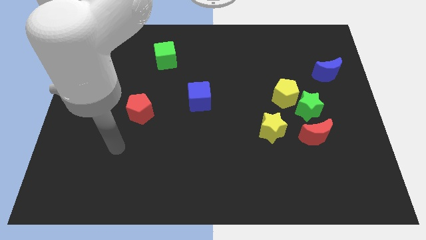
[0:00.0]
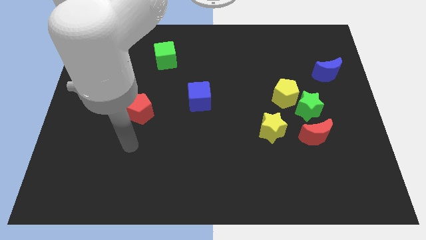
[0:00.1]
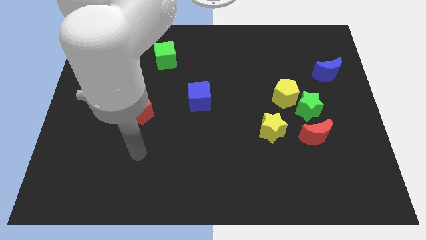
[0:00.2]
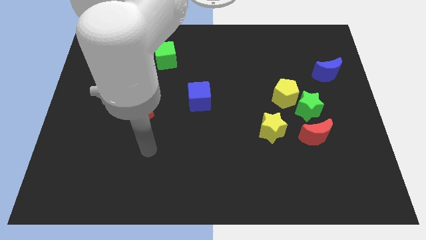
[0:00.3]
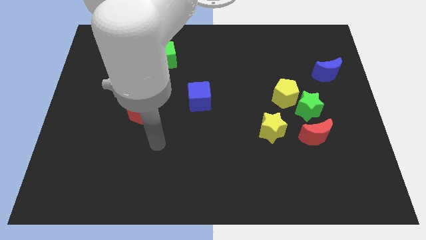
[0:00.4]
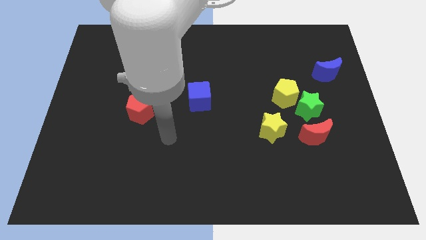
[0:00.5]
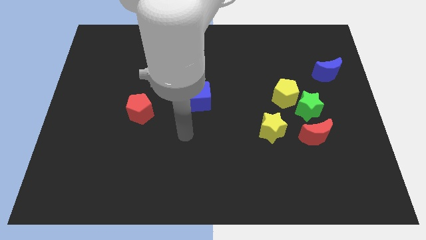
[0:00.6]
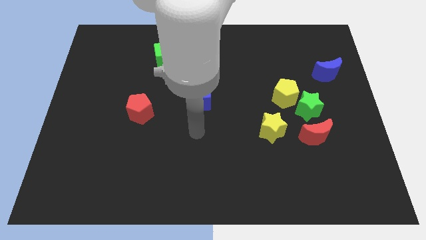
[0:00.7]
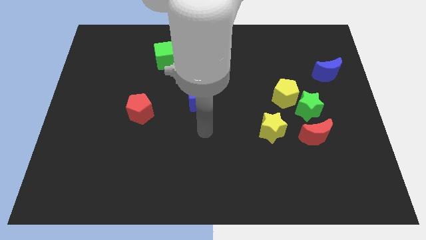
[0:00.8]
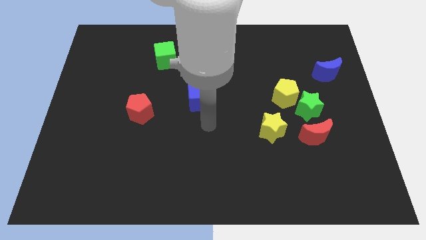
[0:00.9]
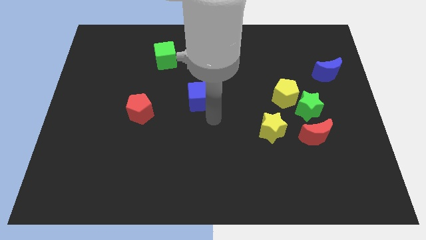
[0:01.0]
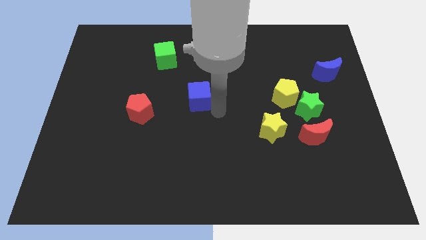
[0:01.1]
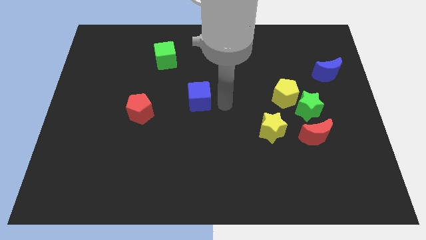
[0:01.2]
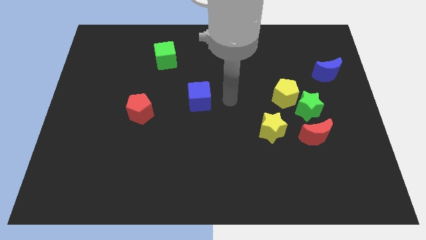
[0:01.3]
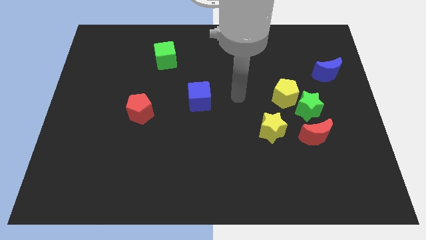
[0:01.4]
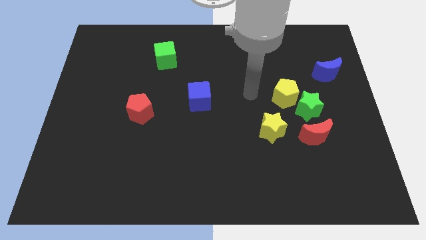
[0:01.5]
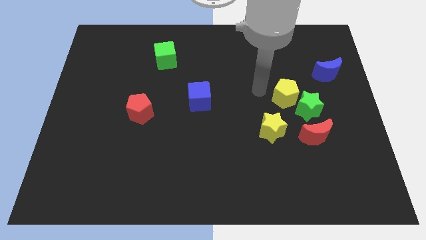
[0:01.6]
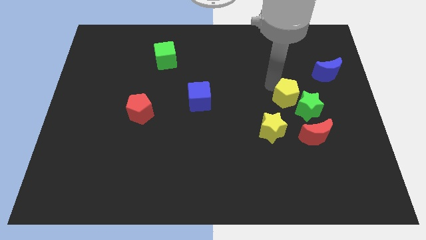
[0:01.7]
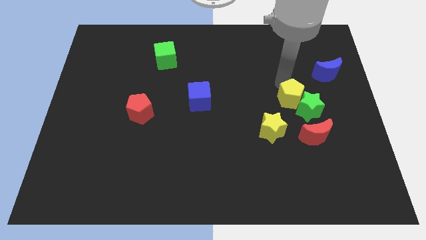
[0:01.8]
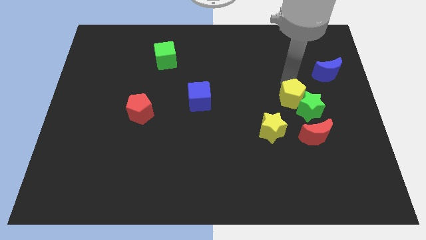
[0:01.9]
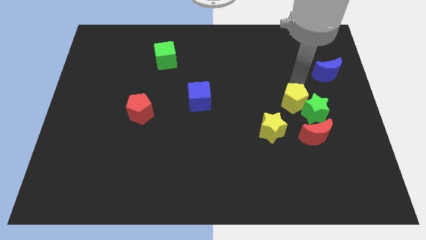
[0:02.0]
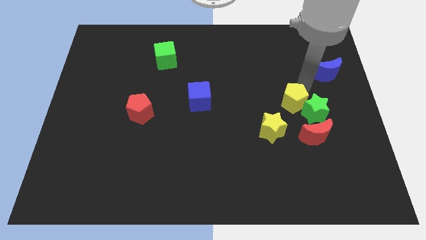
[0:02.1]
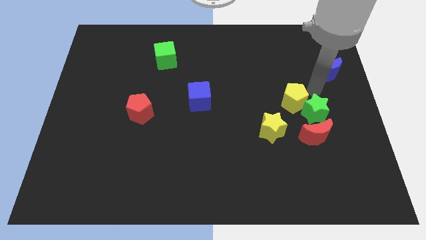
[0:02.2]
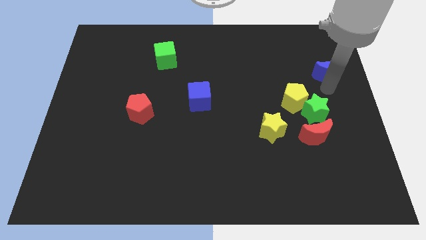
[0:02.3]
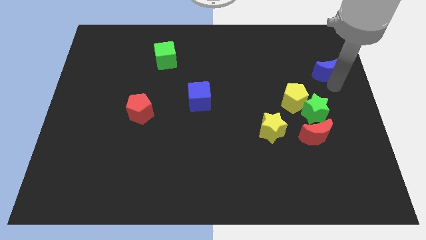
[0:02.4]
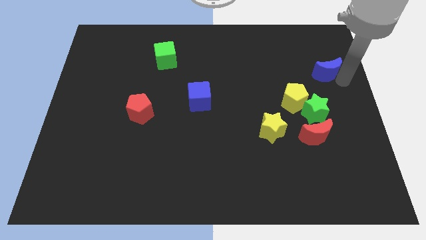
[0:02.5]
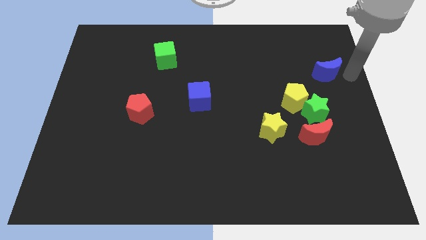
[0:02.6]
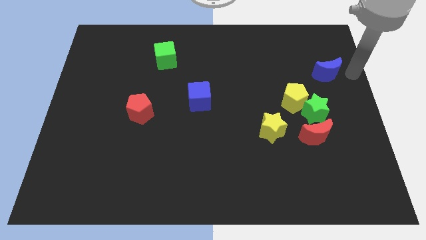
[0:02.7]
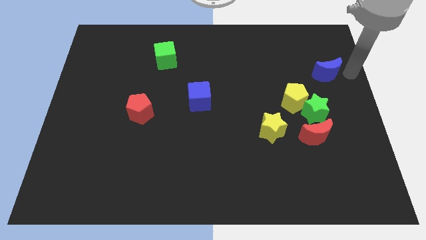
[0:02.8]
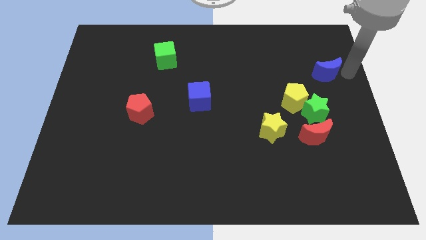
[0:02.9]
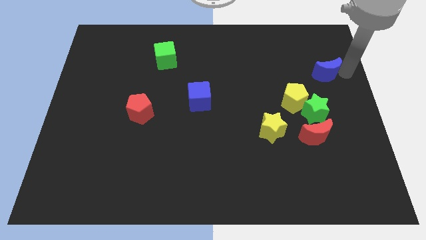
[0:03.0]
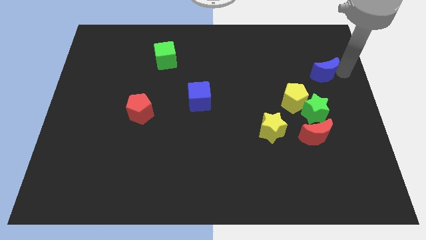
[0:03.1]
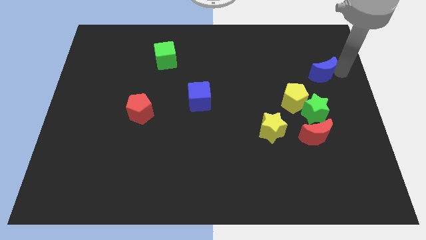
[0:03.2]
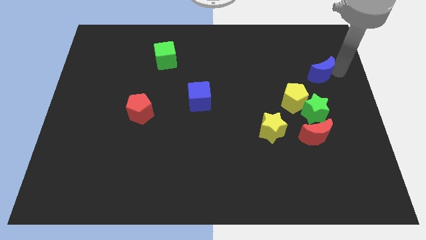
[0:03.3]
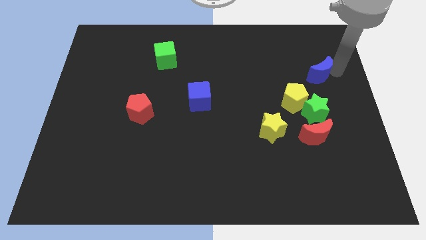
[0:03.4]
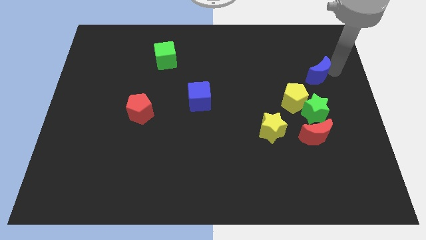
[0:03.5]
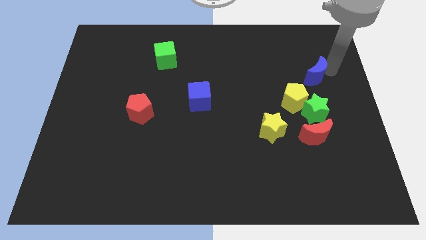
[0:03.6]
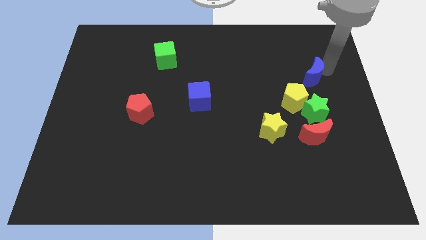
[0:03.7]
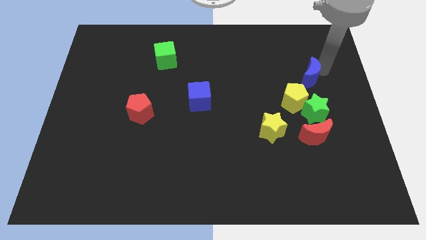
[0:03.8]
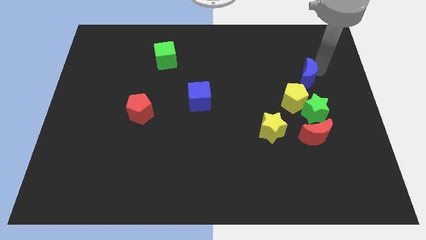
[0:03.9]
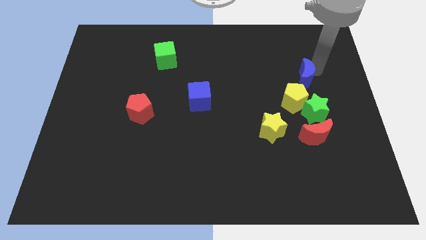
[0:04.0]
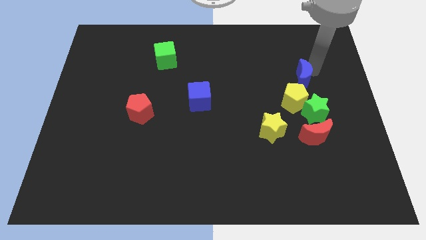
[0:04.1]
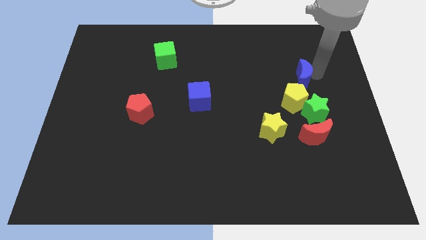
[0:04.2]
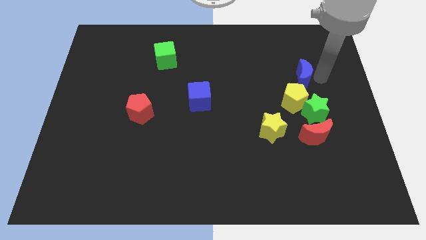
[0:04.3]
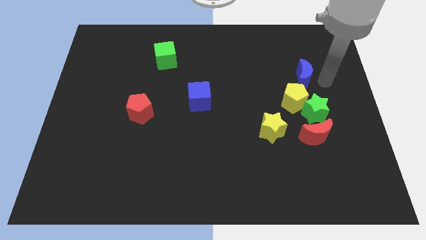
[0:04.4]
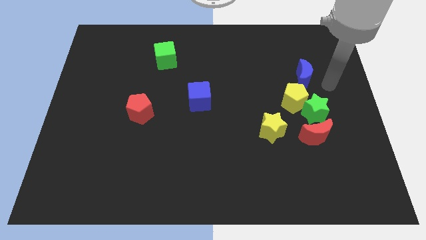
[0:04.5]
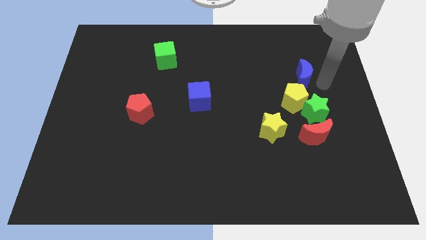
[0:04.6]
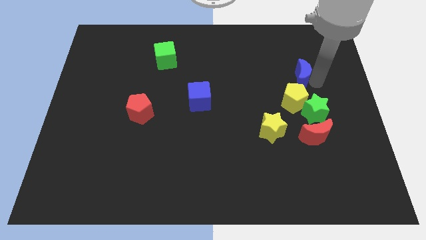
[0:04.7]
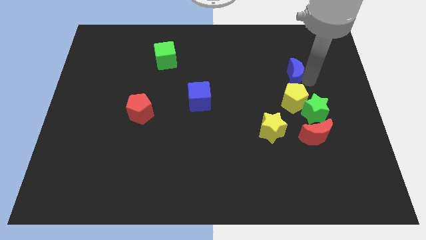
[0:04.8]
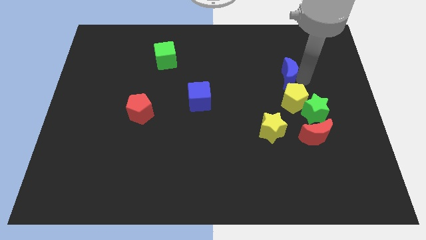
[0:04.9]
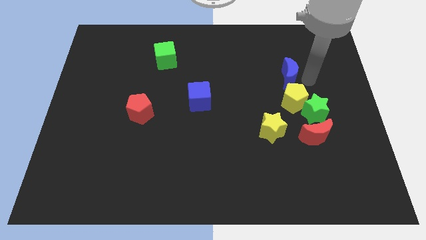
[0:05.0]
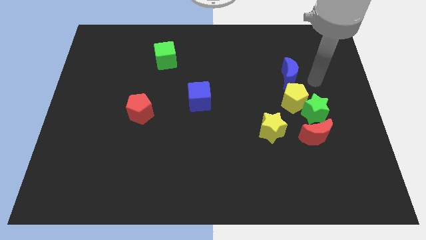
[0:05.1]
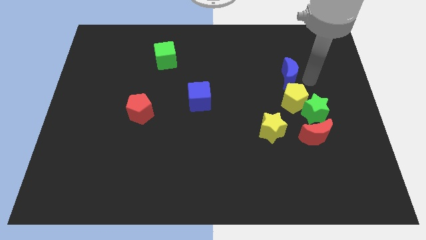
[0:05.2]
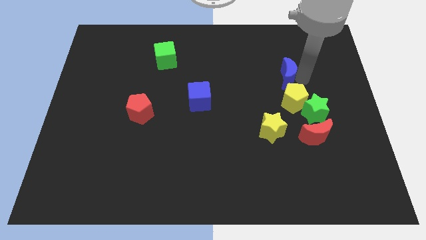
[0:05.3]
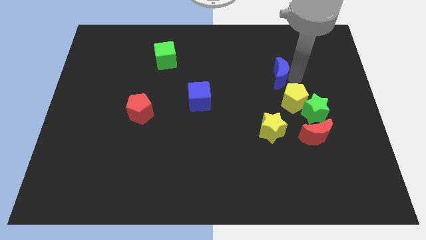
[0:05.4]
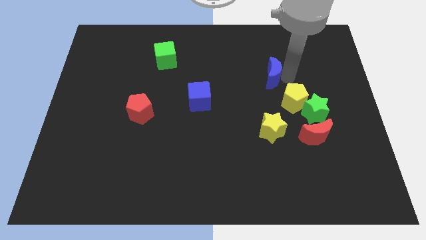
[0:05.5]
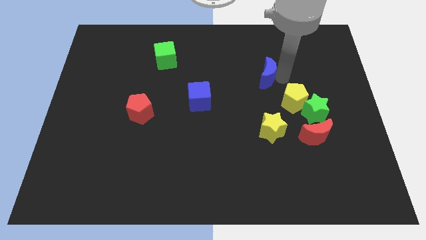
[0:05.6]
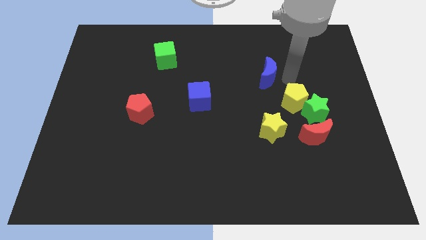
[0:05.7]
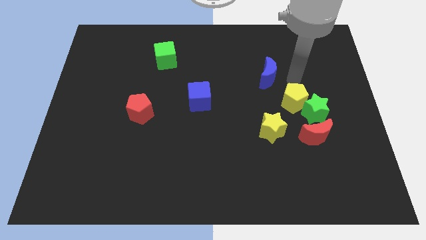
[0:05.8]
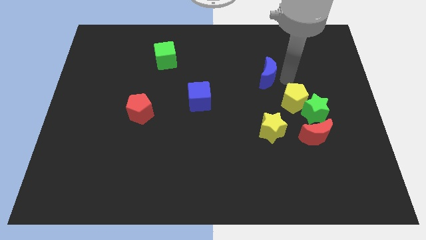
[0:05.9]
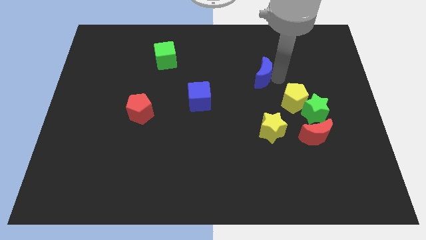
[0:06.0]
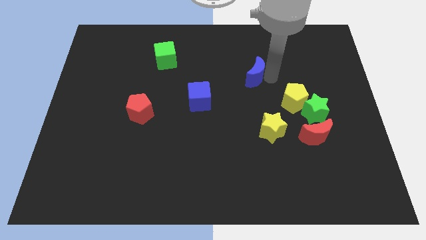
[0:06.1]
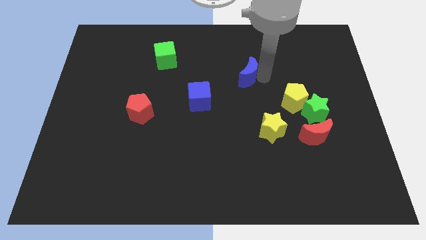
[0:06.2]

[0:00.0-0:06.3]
push the blue moon left

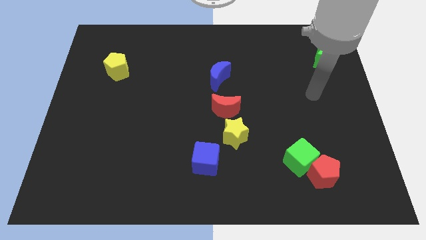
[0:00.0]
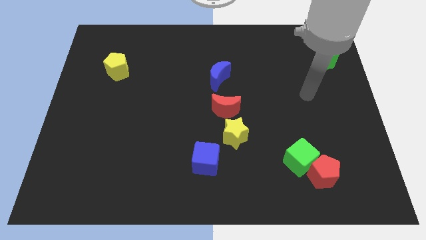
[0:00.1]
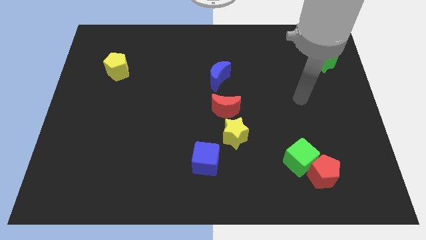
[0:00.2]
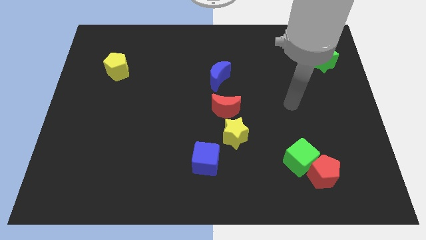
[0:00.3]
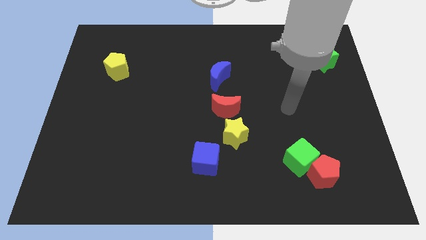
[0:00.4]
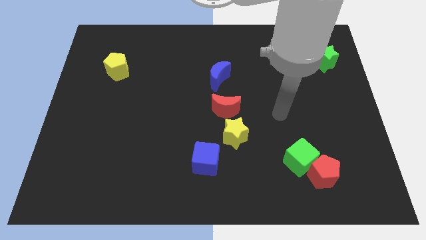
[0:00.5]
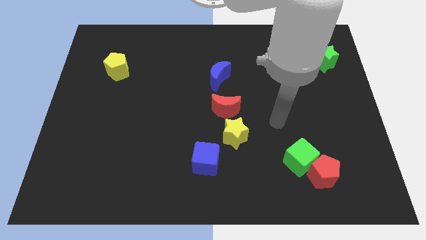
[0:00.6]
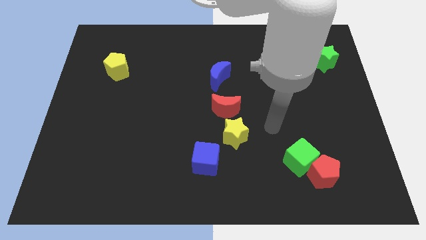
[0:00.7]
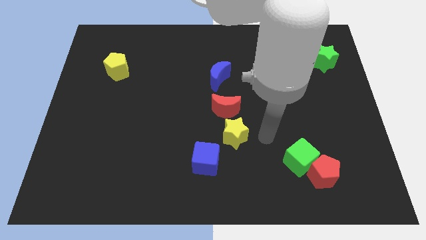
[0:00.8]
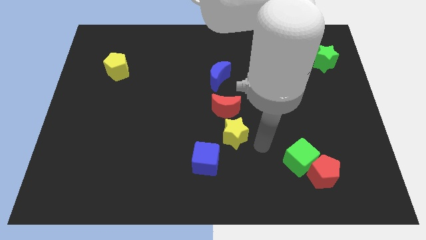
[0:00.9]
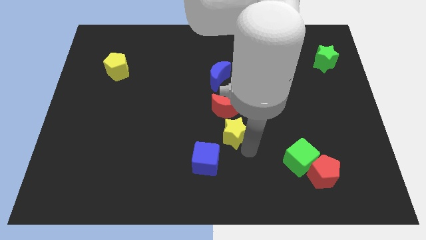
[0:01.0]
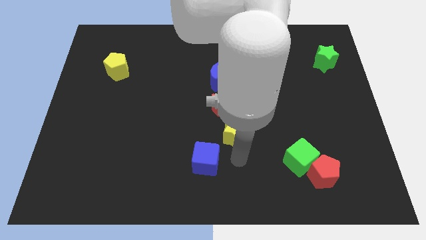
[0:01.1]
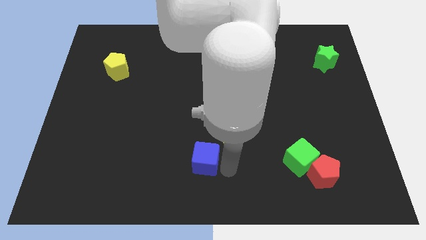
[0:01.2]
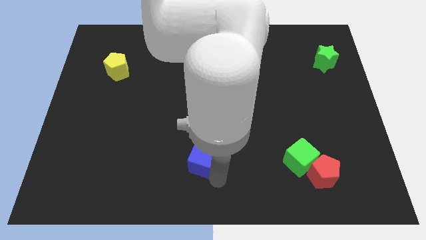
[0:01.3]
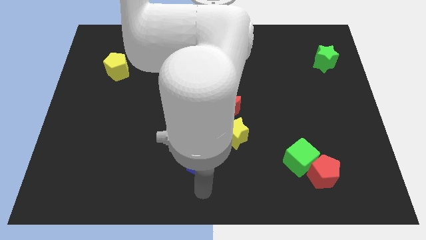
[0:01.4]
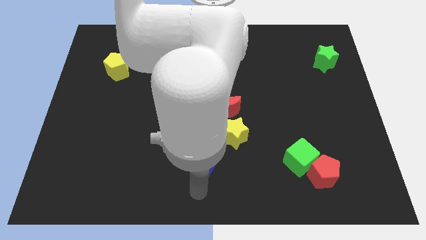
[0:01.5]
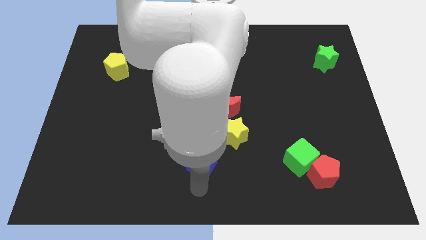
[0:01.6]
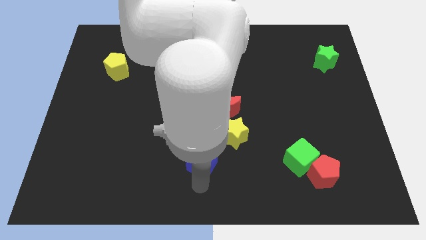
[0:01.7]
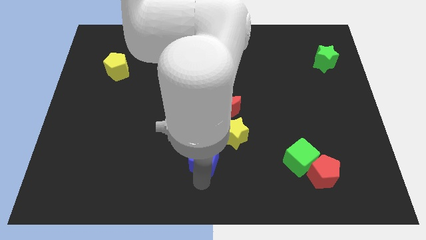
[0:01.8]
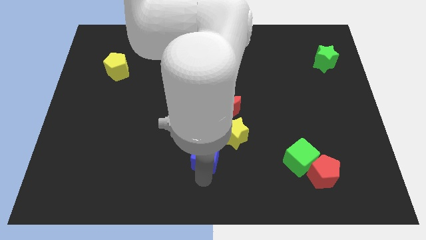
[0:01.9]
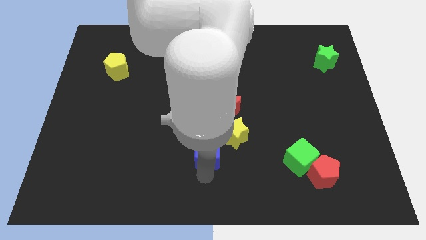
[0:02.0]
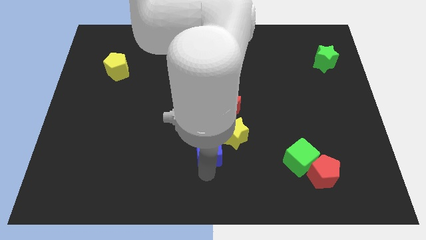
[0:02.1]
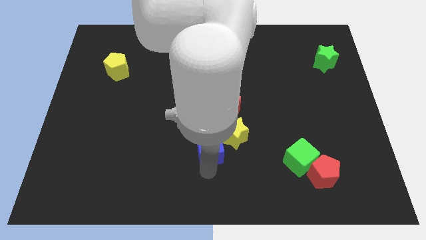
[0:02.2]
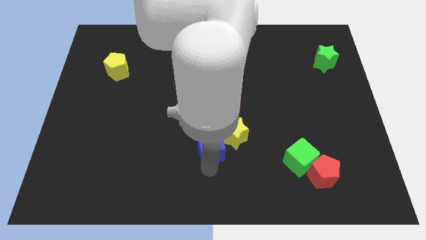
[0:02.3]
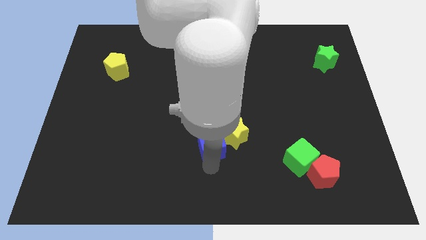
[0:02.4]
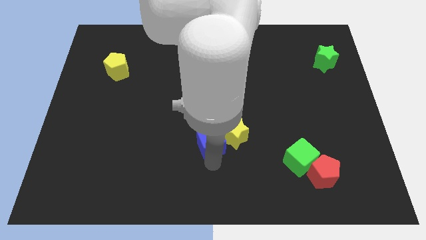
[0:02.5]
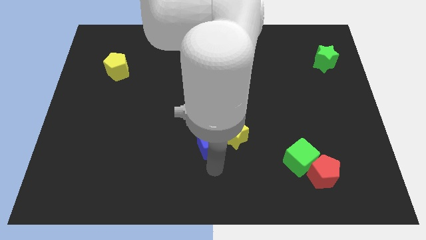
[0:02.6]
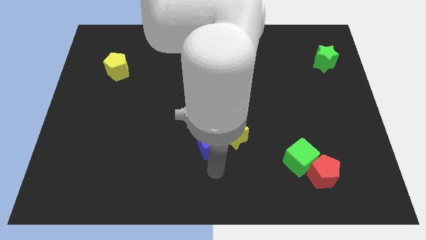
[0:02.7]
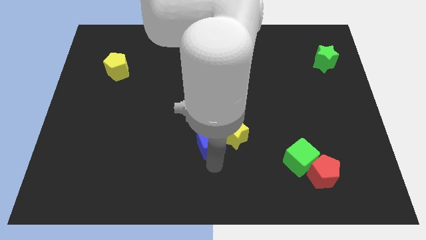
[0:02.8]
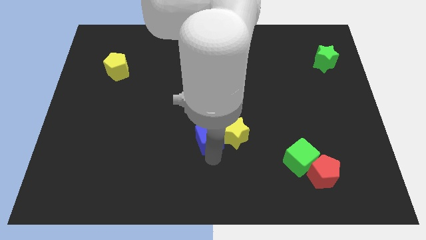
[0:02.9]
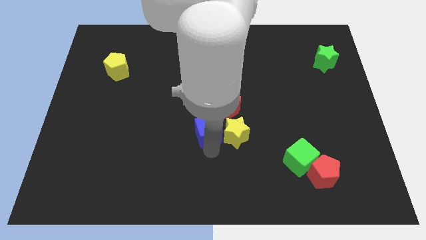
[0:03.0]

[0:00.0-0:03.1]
push the blue cube a little upwards
